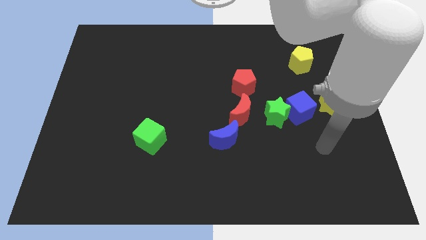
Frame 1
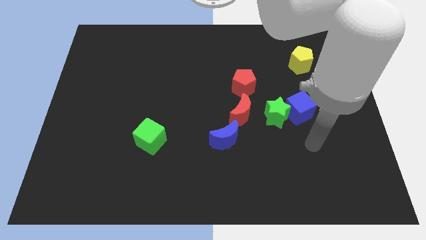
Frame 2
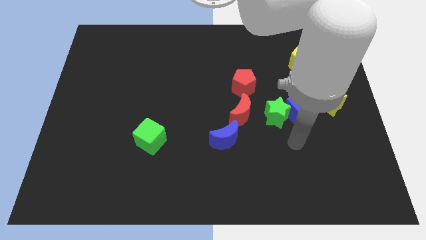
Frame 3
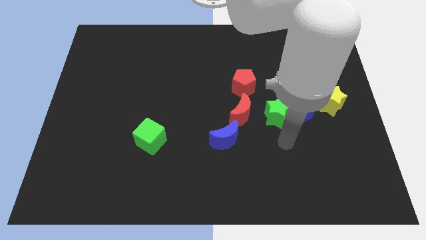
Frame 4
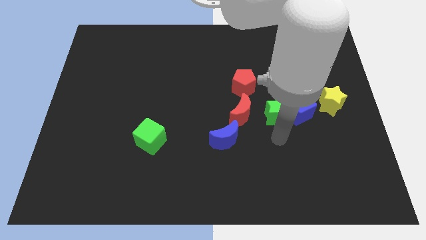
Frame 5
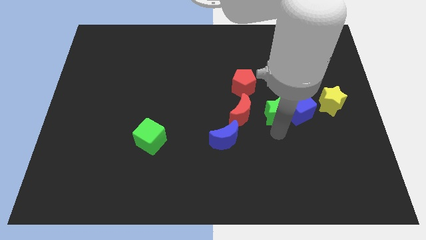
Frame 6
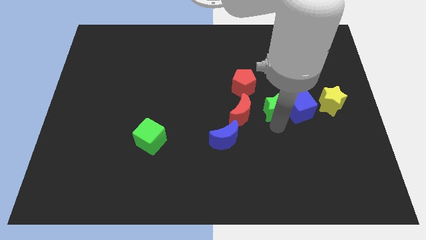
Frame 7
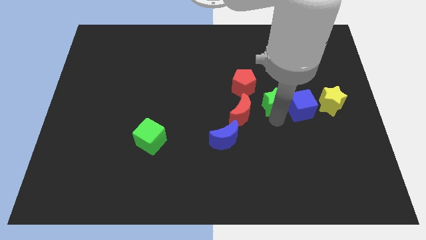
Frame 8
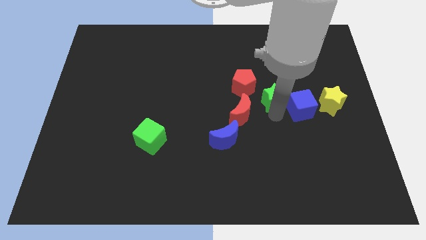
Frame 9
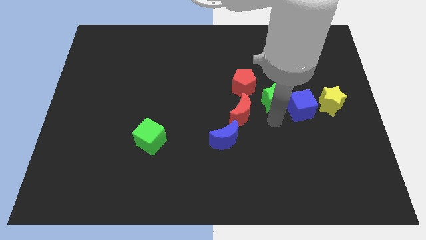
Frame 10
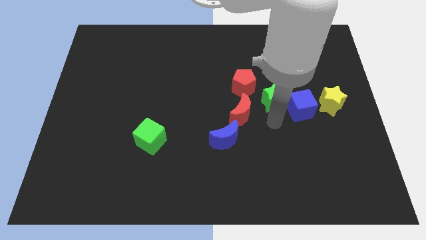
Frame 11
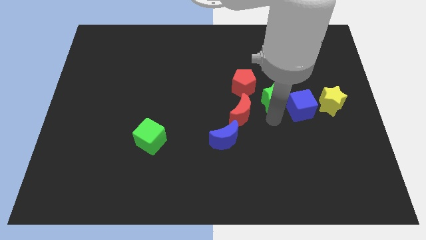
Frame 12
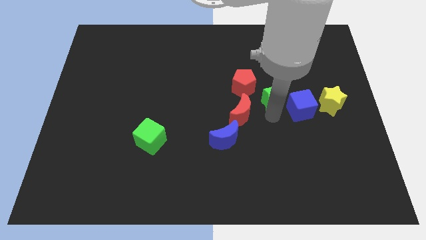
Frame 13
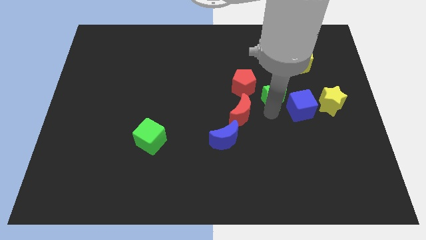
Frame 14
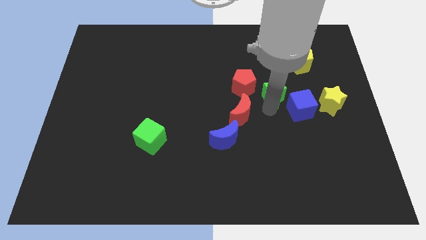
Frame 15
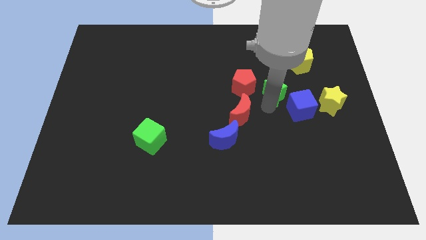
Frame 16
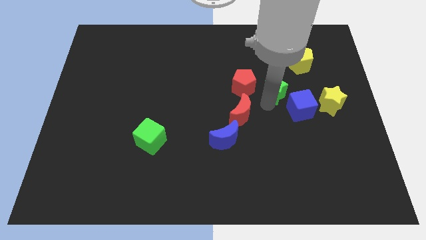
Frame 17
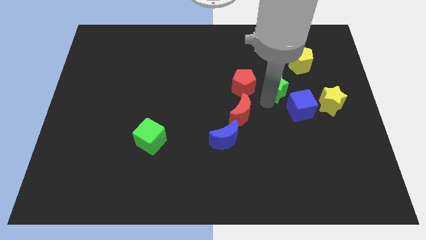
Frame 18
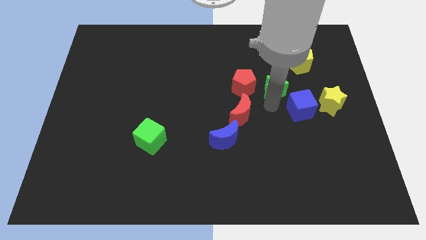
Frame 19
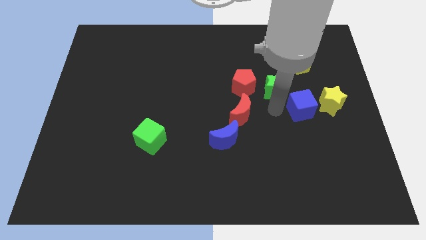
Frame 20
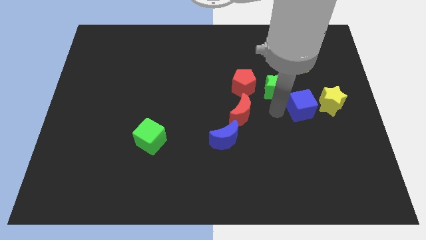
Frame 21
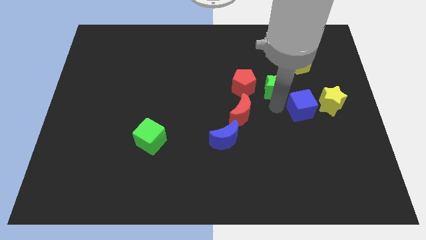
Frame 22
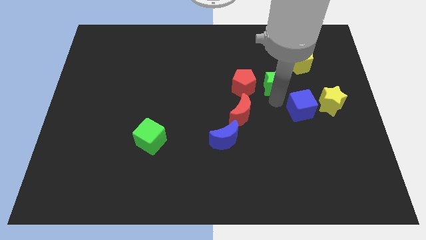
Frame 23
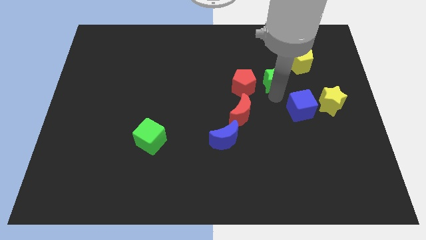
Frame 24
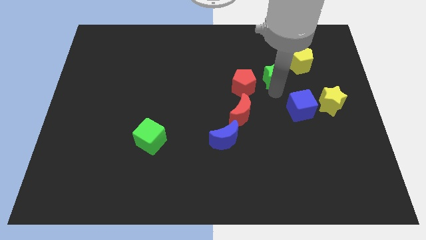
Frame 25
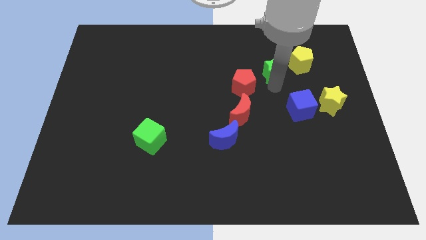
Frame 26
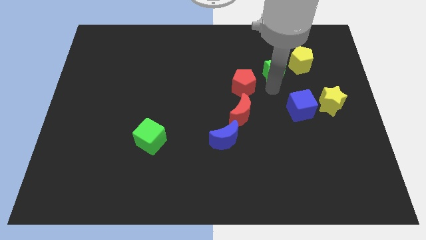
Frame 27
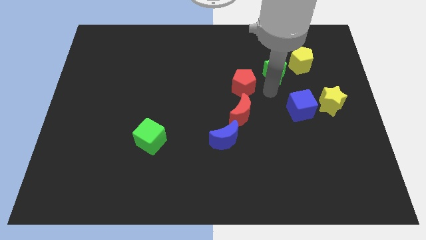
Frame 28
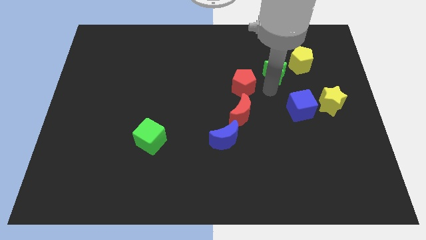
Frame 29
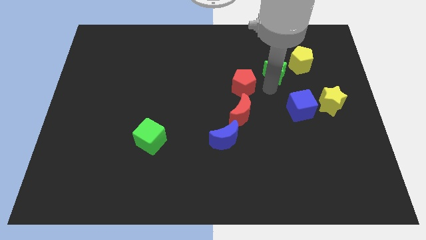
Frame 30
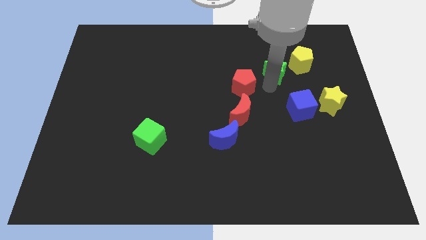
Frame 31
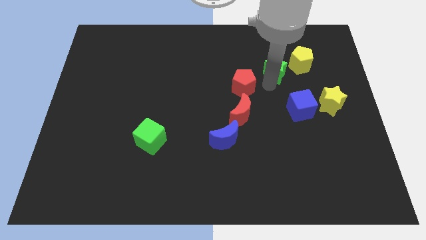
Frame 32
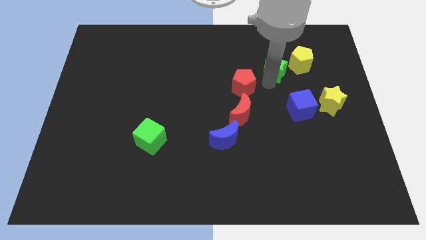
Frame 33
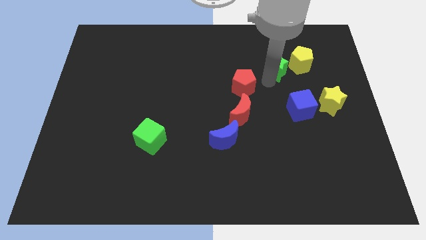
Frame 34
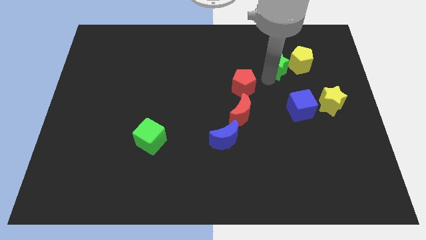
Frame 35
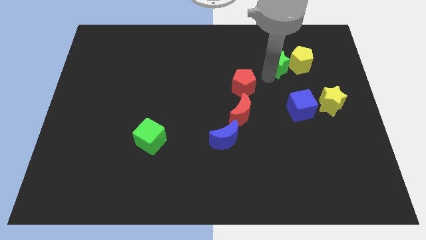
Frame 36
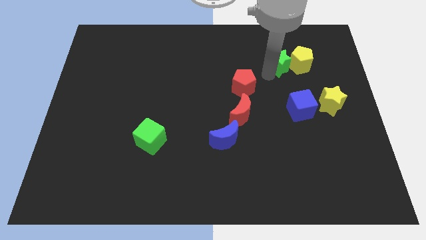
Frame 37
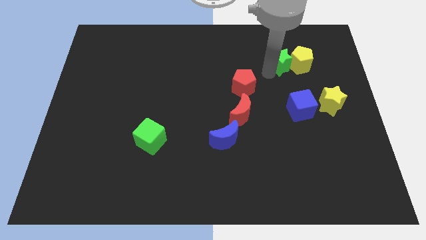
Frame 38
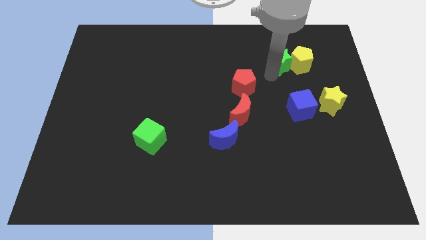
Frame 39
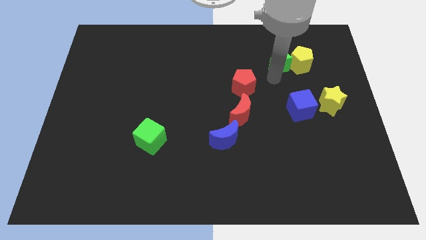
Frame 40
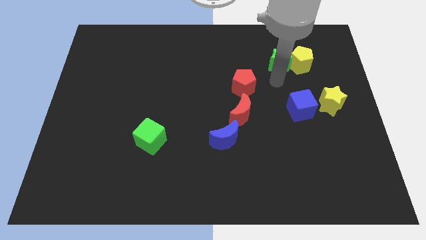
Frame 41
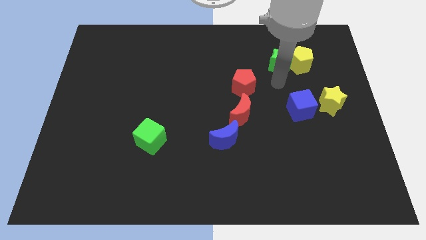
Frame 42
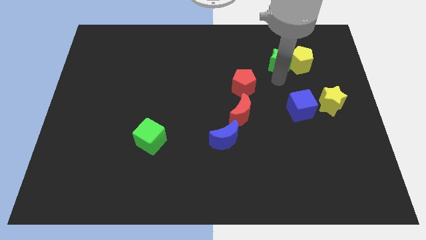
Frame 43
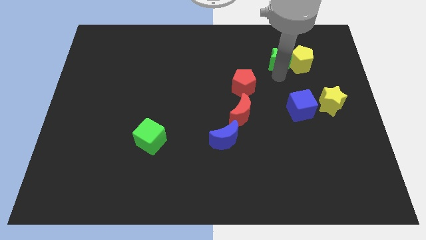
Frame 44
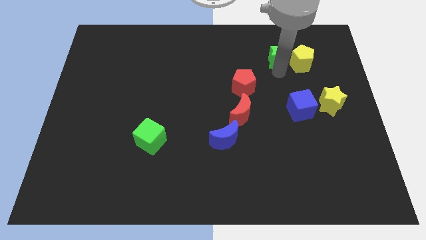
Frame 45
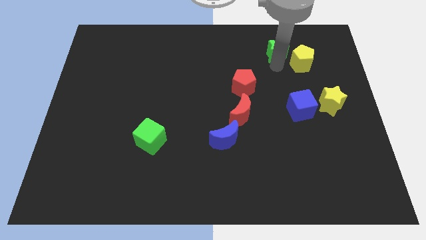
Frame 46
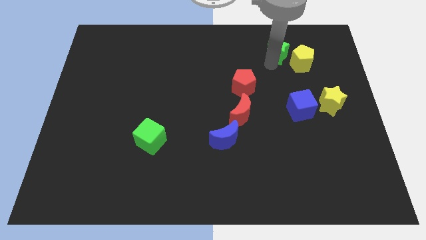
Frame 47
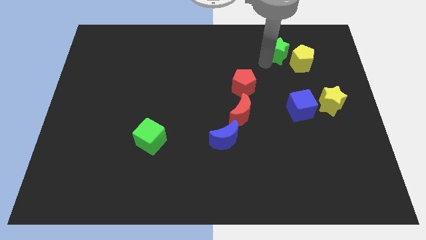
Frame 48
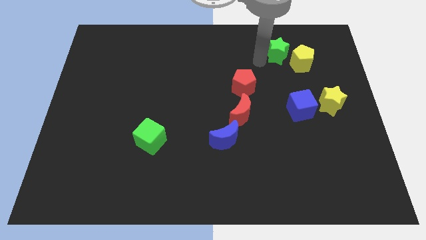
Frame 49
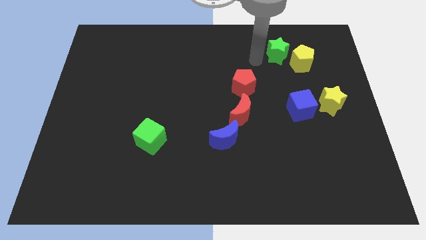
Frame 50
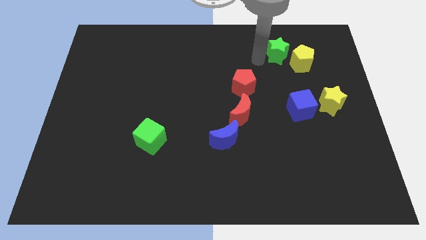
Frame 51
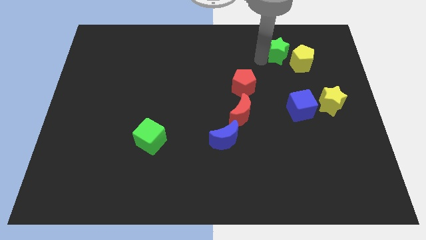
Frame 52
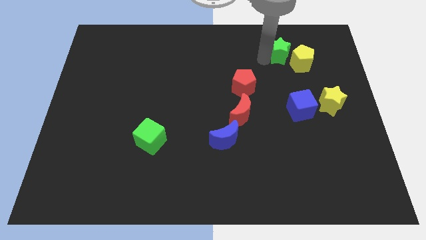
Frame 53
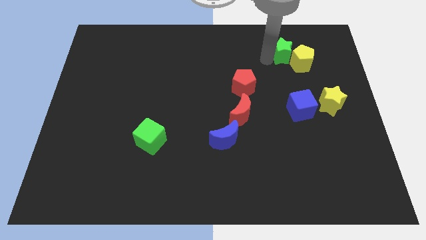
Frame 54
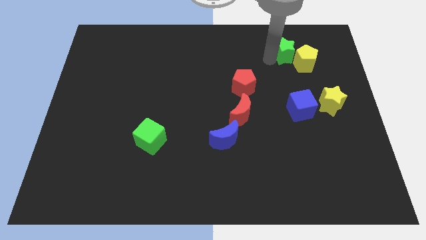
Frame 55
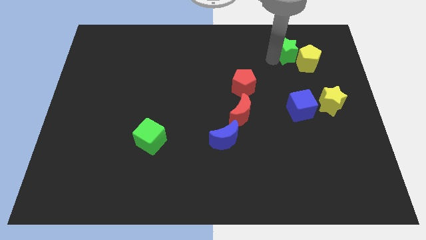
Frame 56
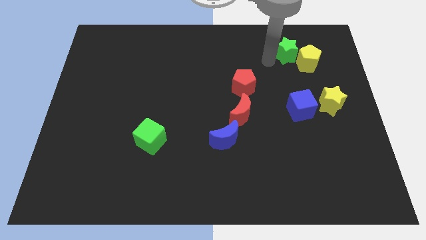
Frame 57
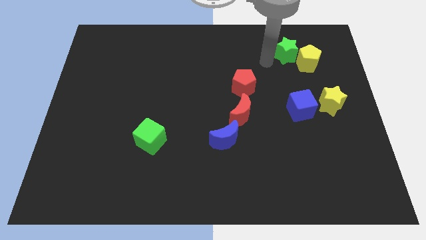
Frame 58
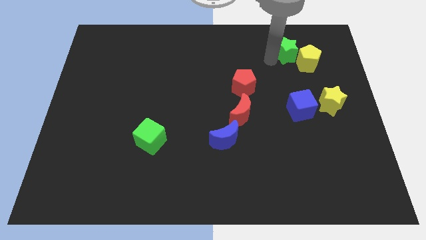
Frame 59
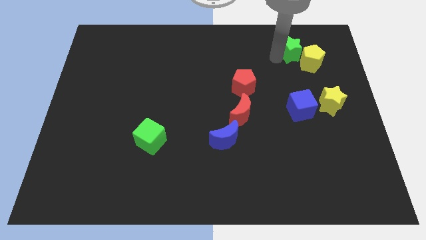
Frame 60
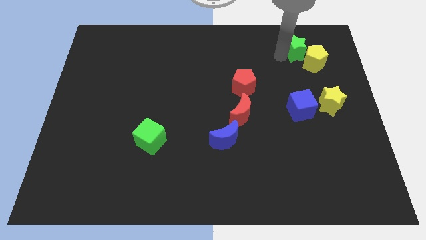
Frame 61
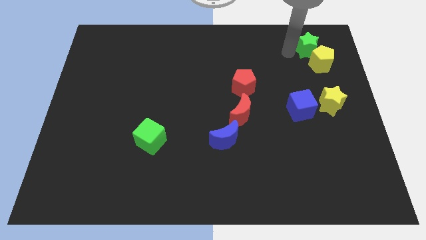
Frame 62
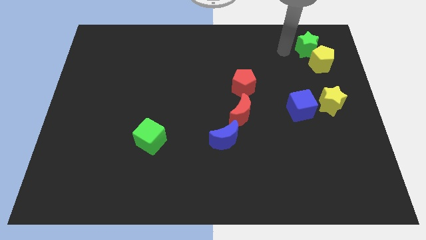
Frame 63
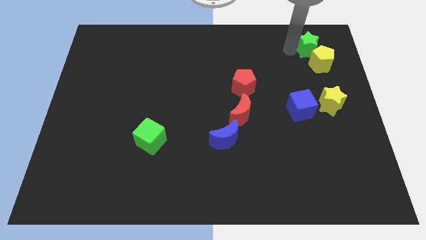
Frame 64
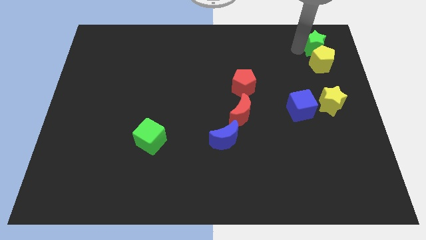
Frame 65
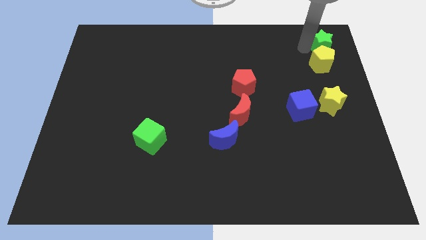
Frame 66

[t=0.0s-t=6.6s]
slide the green star to the top right corner
